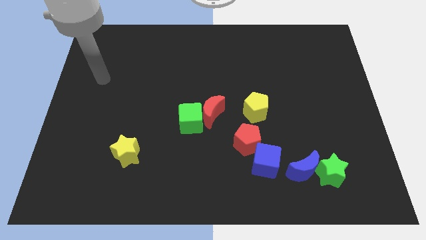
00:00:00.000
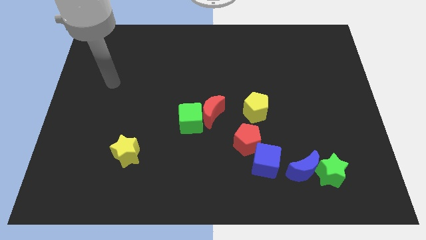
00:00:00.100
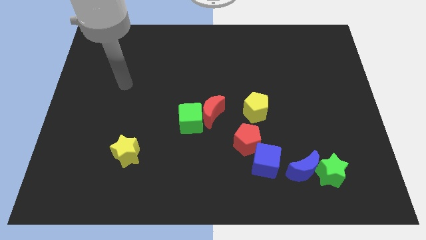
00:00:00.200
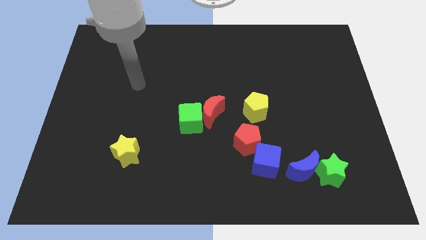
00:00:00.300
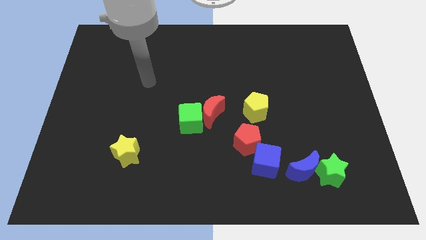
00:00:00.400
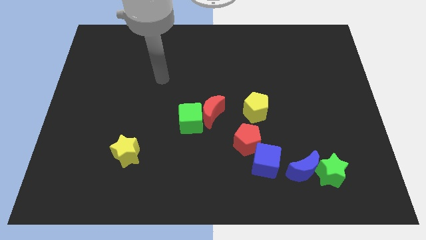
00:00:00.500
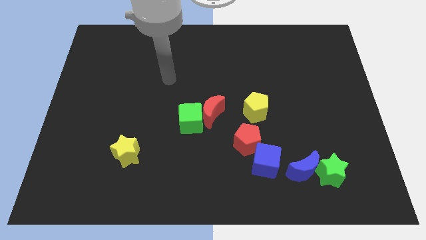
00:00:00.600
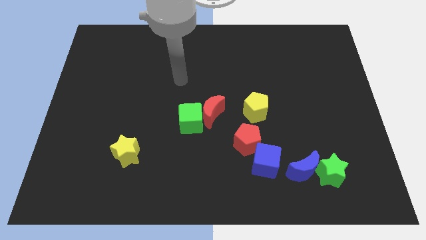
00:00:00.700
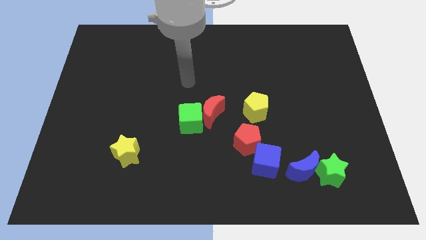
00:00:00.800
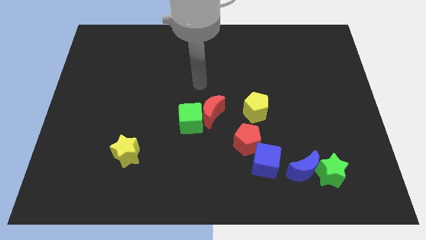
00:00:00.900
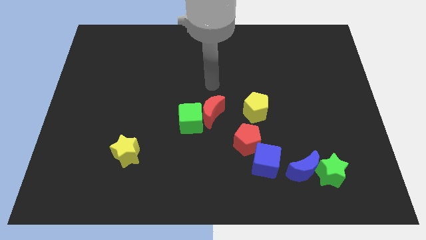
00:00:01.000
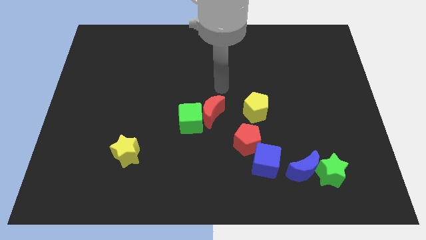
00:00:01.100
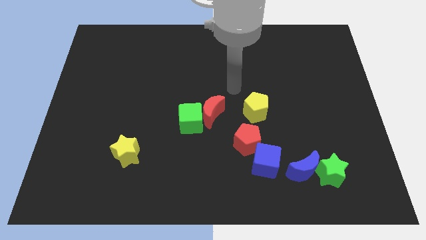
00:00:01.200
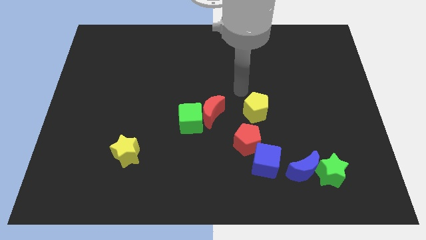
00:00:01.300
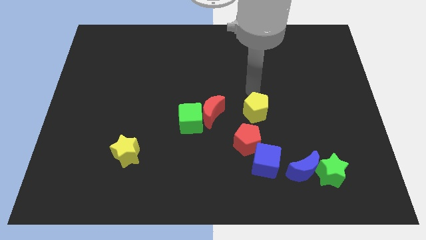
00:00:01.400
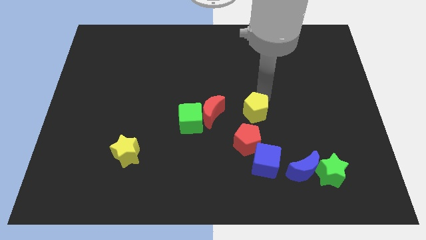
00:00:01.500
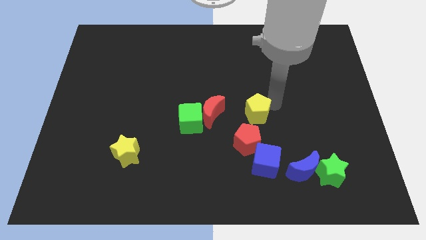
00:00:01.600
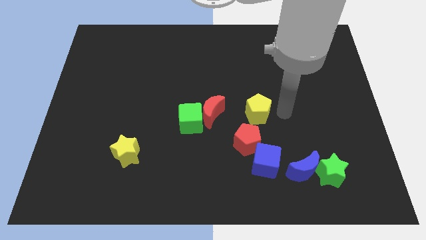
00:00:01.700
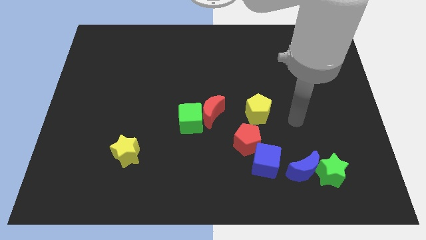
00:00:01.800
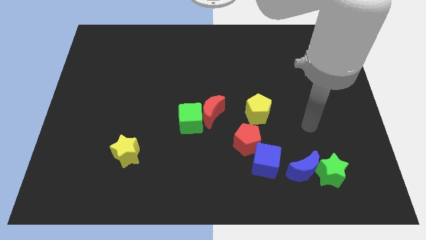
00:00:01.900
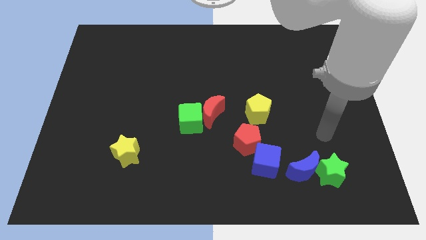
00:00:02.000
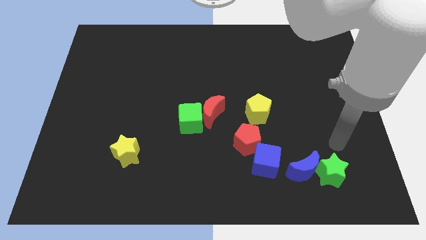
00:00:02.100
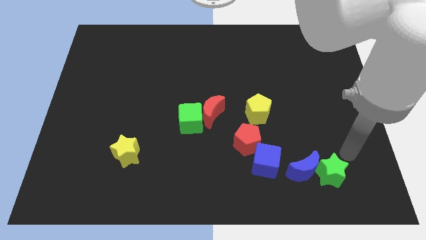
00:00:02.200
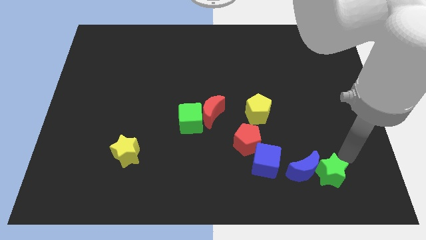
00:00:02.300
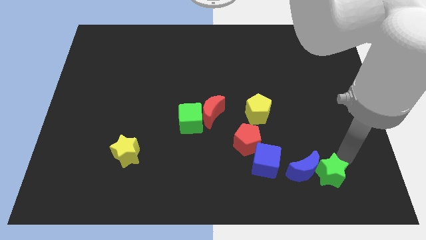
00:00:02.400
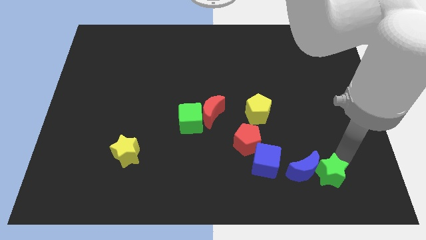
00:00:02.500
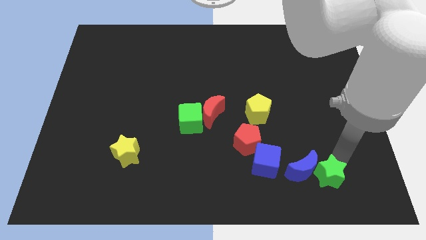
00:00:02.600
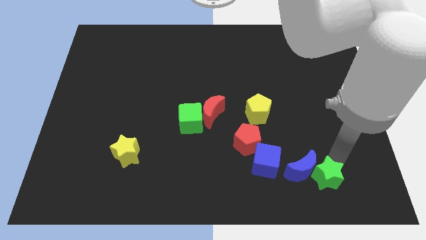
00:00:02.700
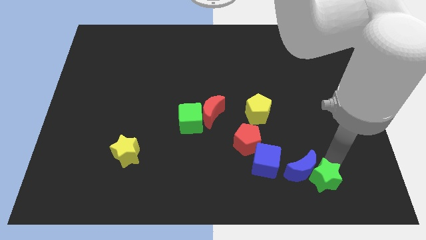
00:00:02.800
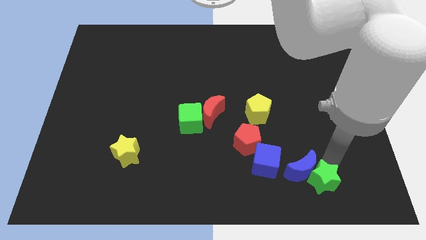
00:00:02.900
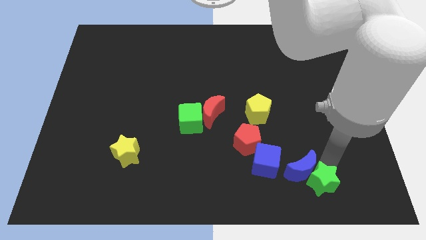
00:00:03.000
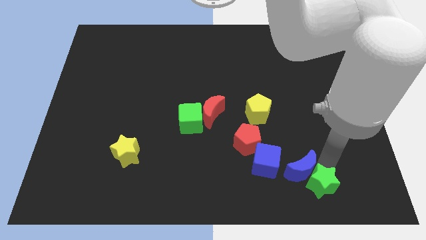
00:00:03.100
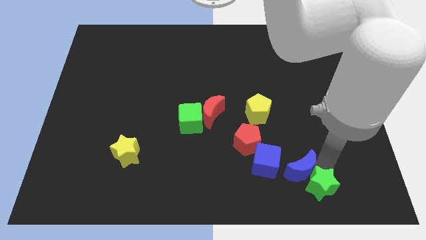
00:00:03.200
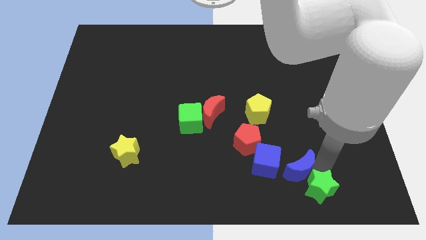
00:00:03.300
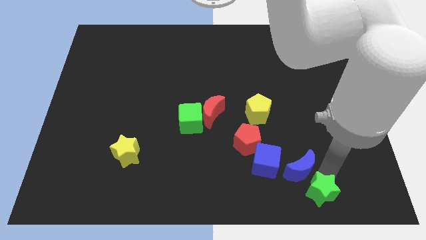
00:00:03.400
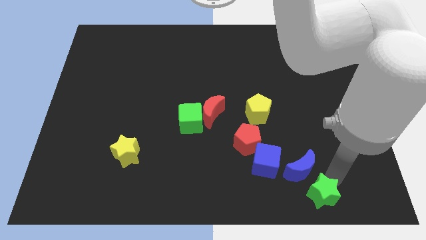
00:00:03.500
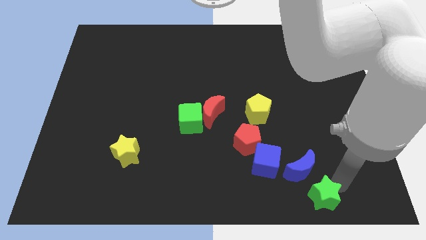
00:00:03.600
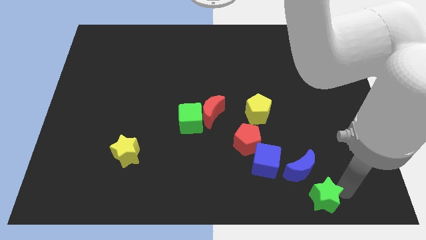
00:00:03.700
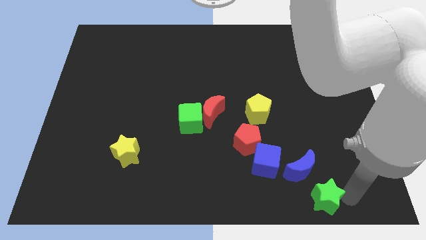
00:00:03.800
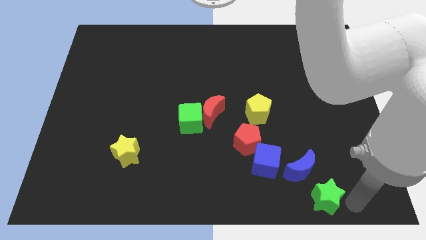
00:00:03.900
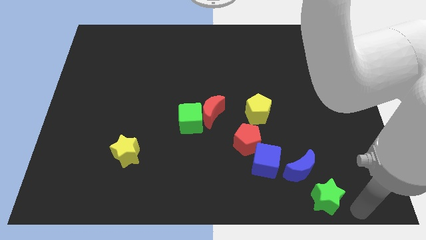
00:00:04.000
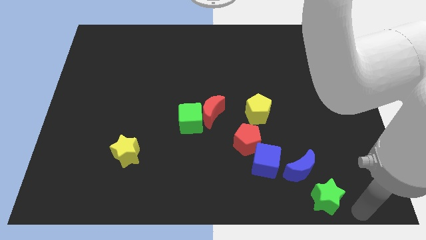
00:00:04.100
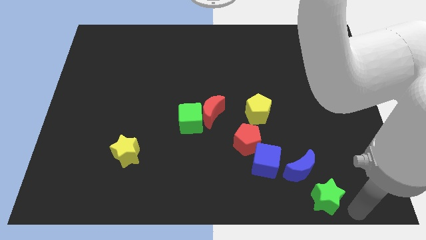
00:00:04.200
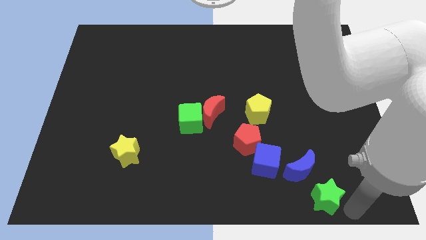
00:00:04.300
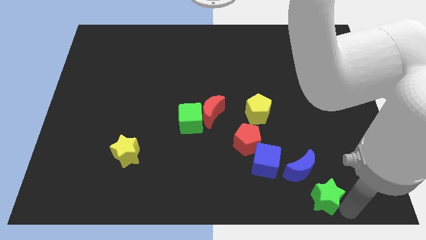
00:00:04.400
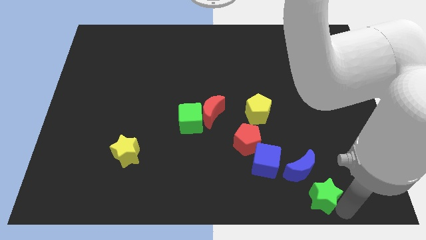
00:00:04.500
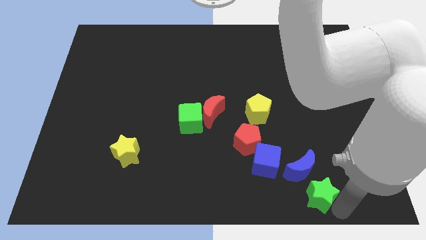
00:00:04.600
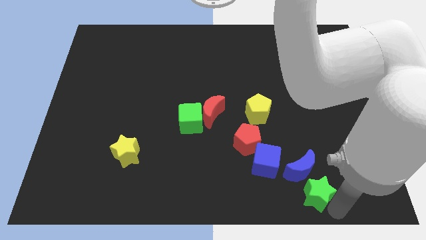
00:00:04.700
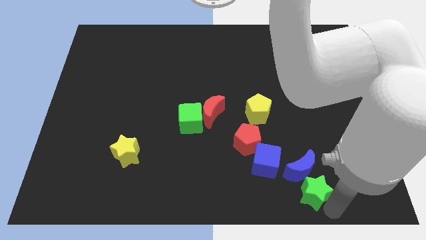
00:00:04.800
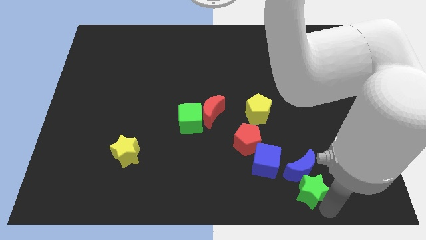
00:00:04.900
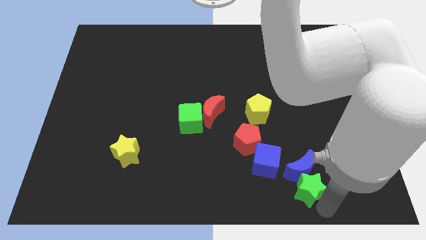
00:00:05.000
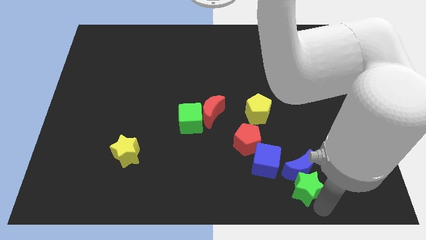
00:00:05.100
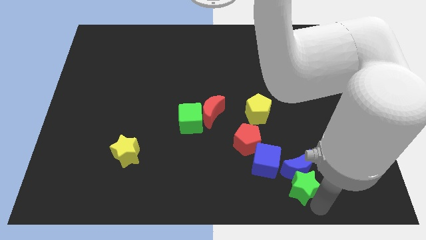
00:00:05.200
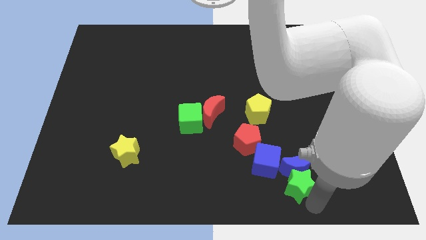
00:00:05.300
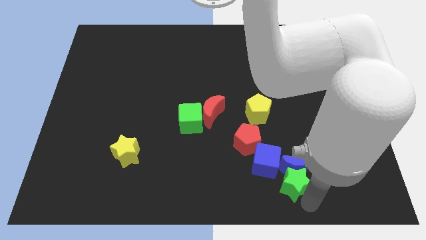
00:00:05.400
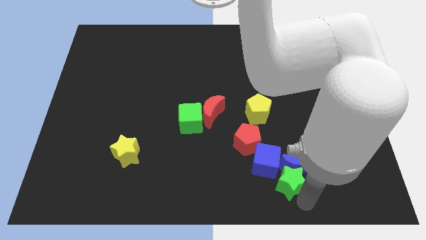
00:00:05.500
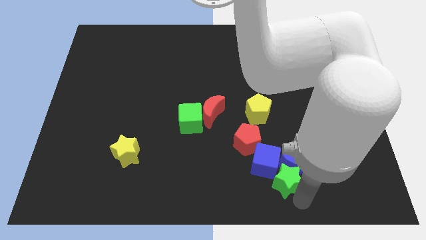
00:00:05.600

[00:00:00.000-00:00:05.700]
slide the green star to the blue cube

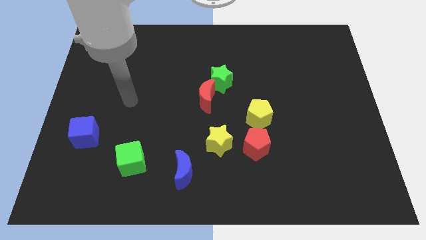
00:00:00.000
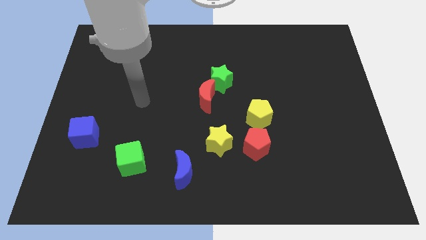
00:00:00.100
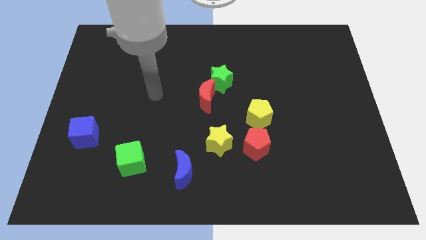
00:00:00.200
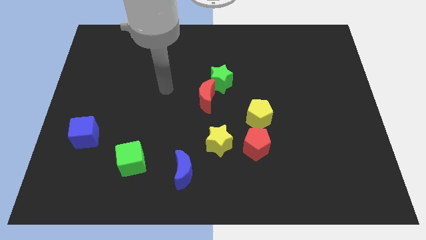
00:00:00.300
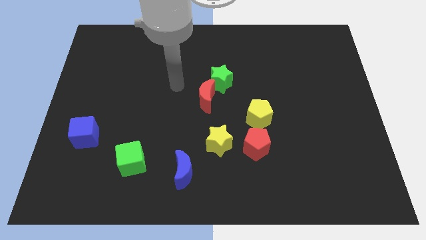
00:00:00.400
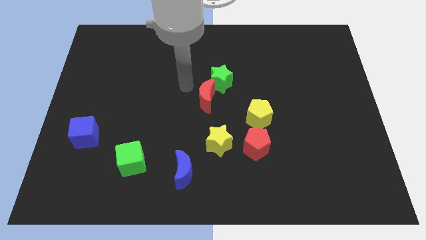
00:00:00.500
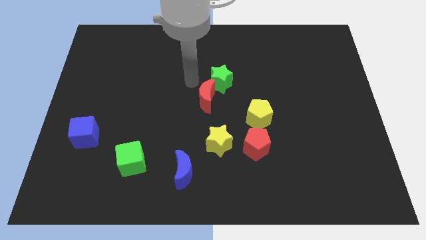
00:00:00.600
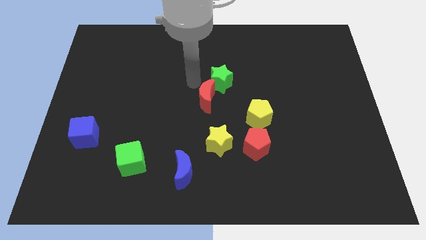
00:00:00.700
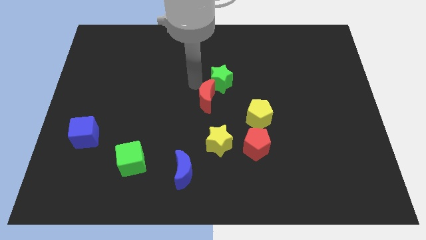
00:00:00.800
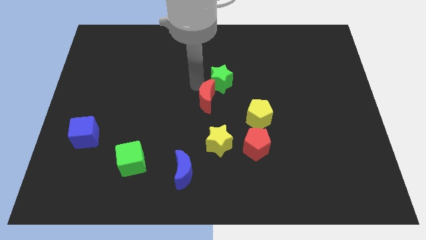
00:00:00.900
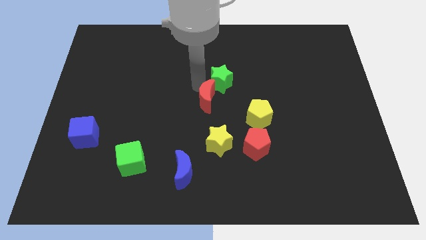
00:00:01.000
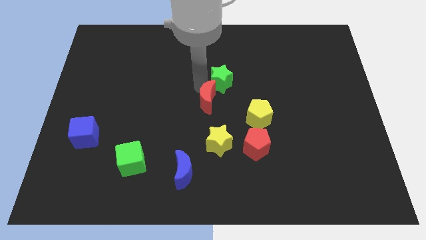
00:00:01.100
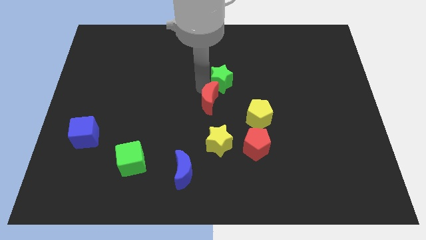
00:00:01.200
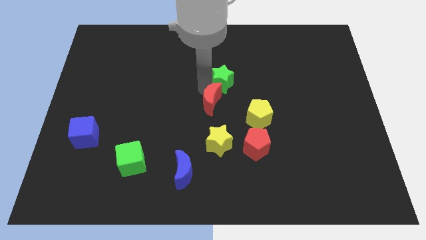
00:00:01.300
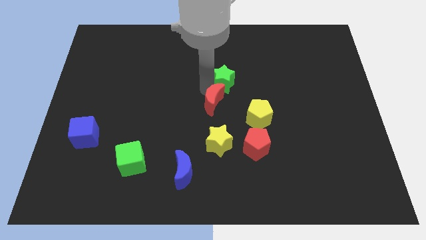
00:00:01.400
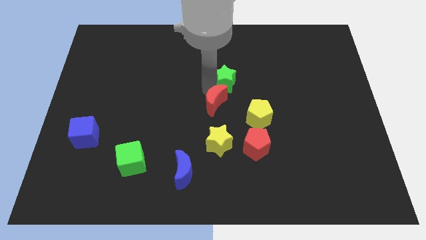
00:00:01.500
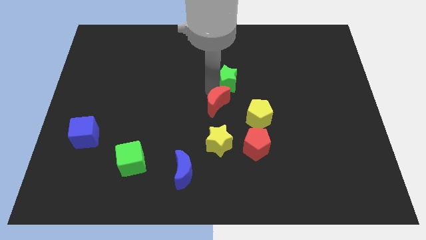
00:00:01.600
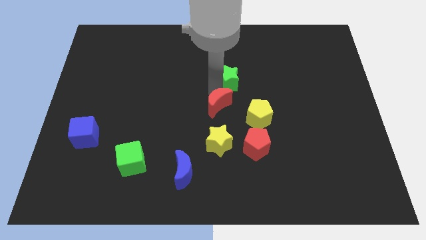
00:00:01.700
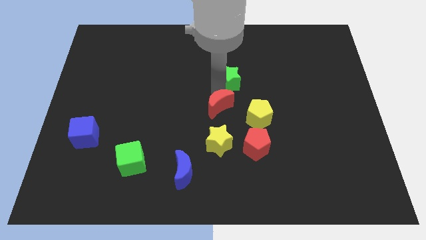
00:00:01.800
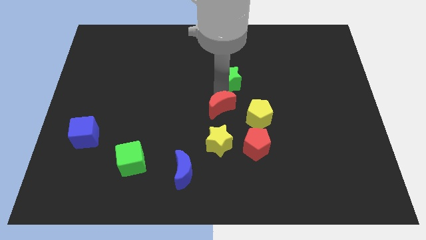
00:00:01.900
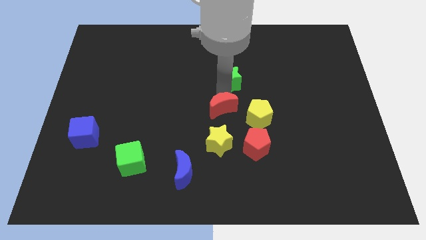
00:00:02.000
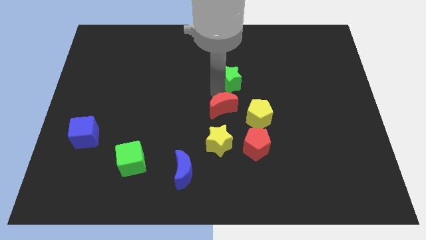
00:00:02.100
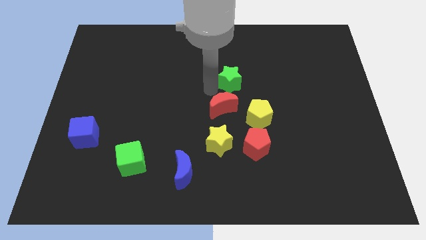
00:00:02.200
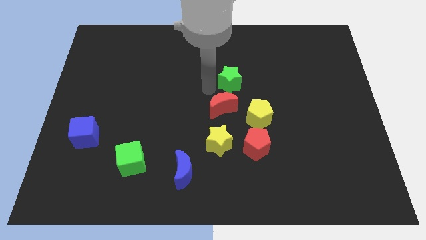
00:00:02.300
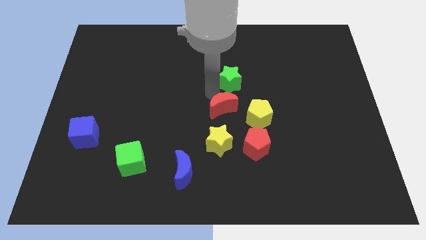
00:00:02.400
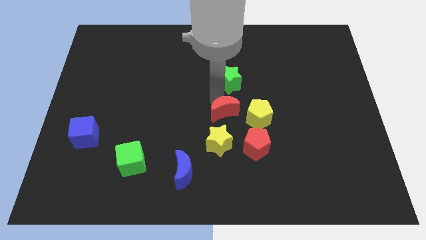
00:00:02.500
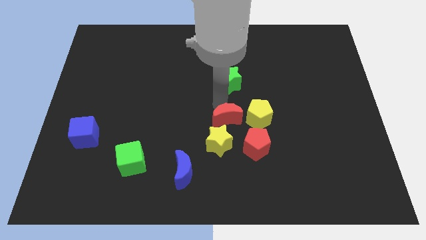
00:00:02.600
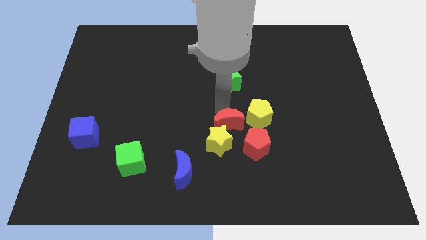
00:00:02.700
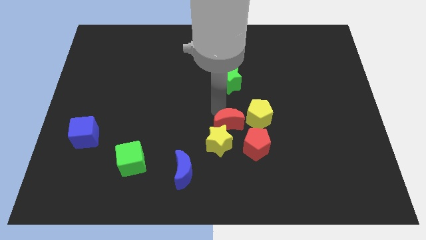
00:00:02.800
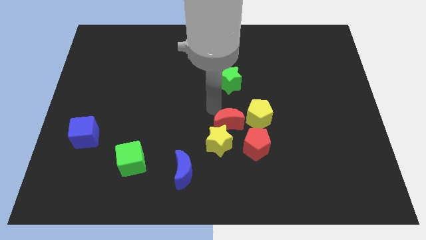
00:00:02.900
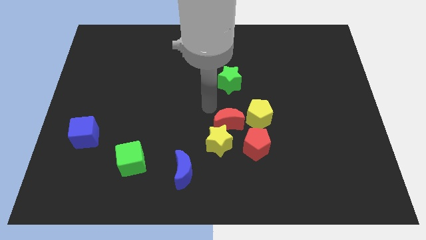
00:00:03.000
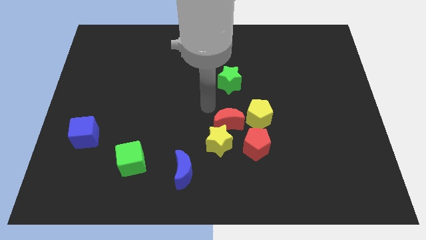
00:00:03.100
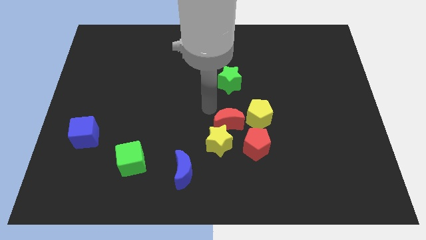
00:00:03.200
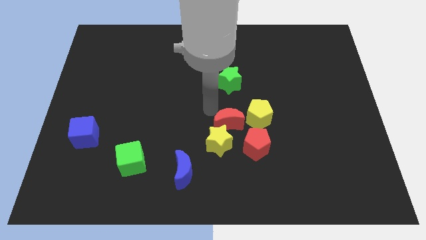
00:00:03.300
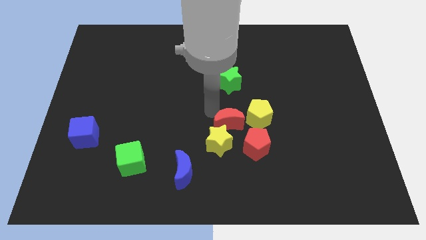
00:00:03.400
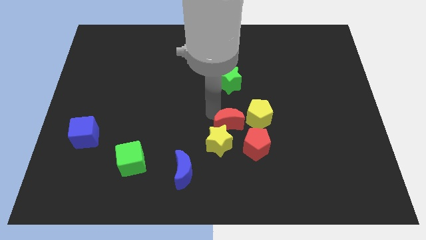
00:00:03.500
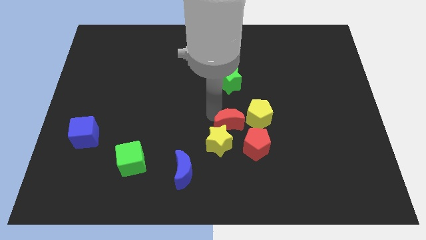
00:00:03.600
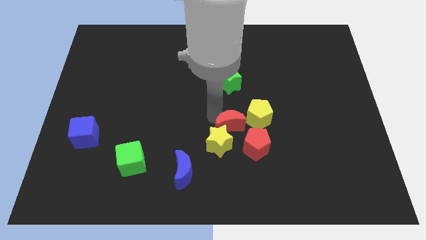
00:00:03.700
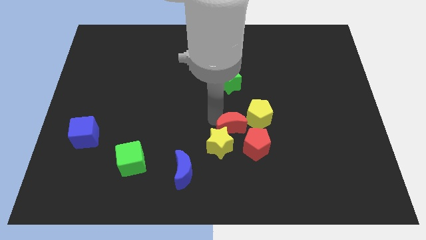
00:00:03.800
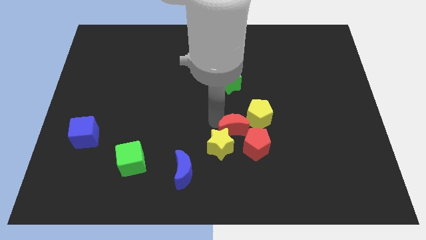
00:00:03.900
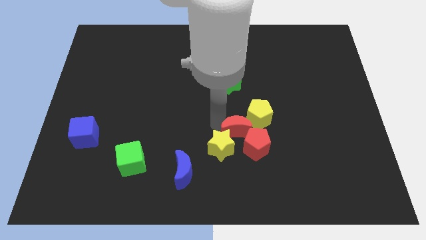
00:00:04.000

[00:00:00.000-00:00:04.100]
put the red moon next to the red pentagon
